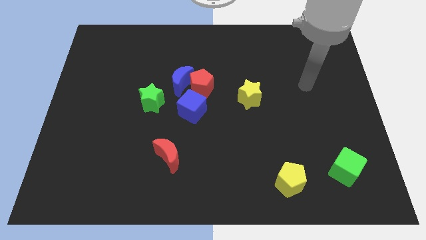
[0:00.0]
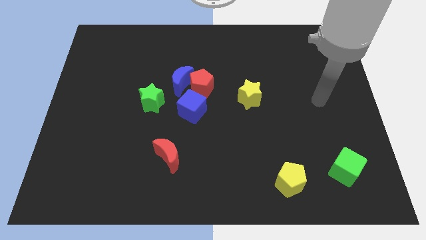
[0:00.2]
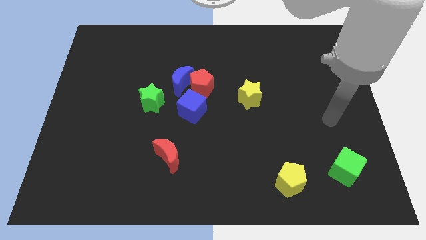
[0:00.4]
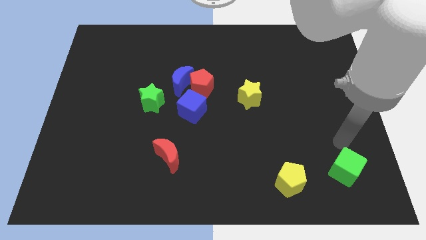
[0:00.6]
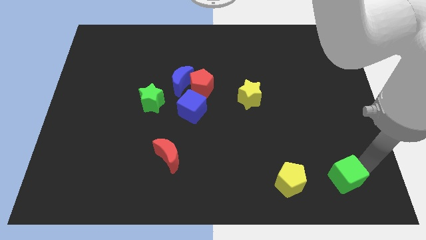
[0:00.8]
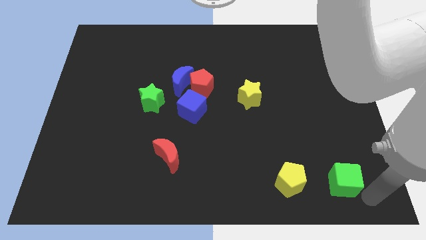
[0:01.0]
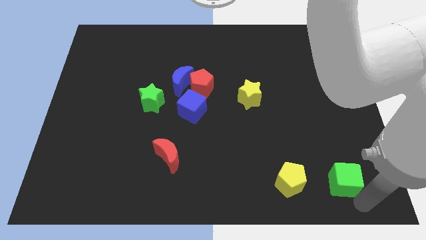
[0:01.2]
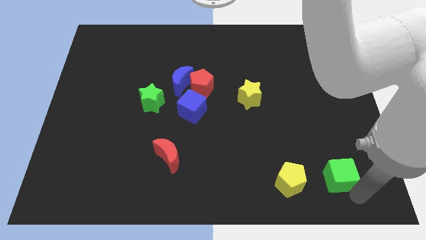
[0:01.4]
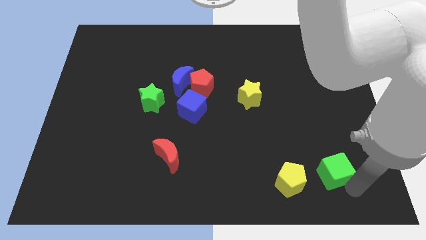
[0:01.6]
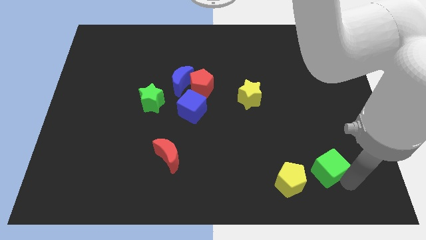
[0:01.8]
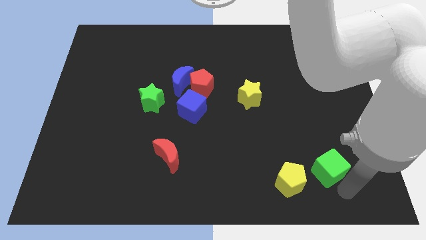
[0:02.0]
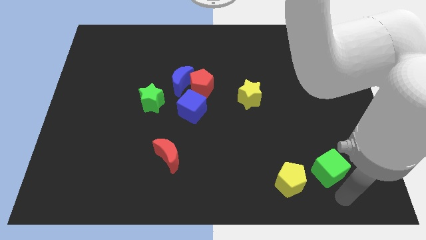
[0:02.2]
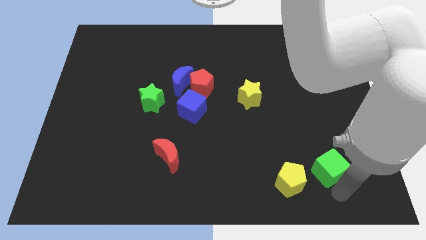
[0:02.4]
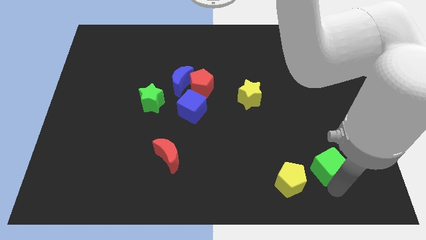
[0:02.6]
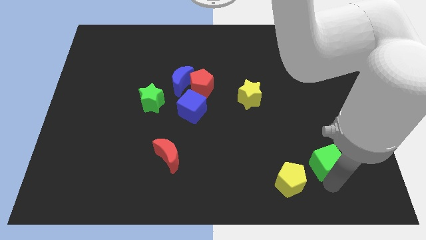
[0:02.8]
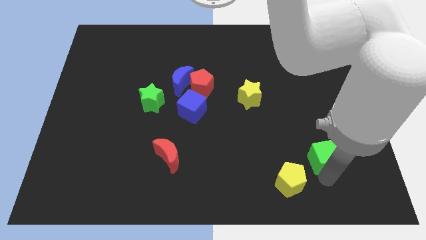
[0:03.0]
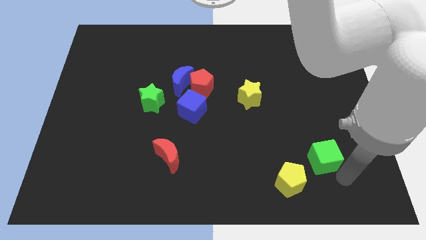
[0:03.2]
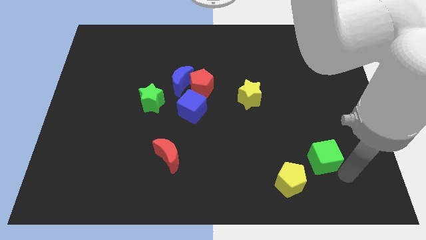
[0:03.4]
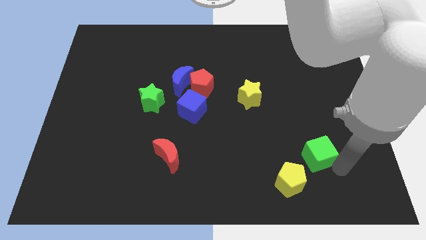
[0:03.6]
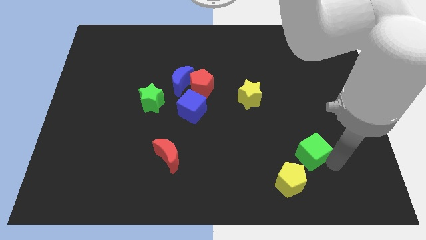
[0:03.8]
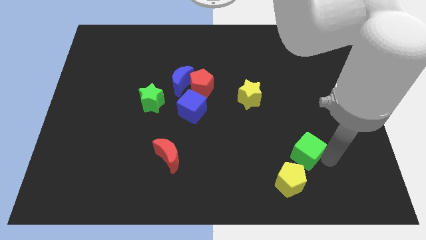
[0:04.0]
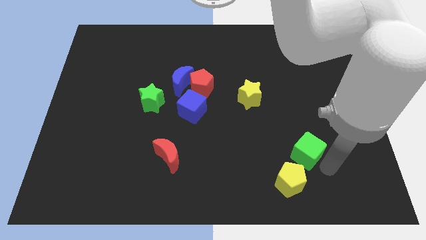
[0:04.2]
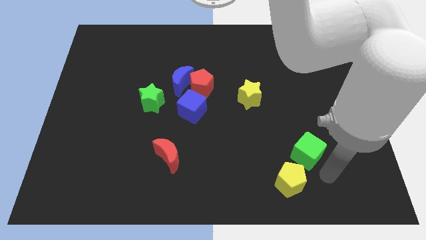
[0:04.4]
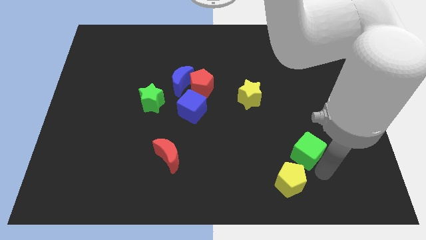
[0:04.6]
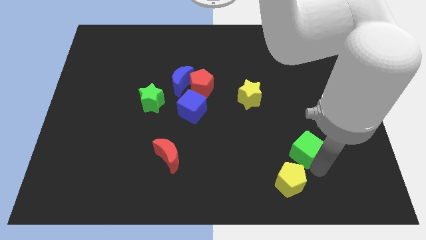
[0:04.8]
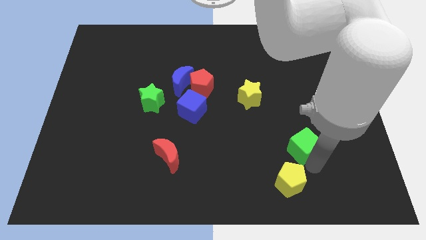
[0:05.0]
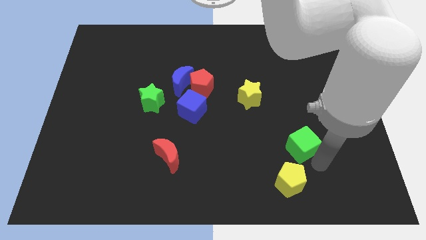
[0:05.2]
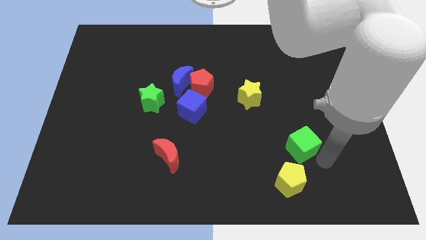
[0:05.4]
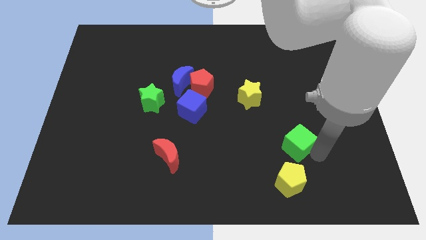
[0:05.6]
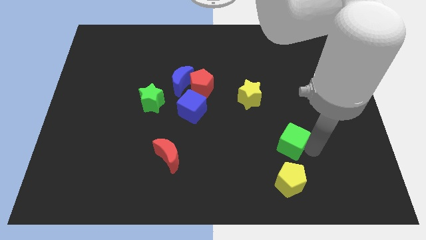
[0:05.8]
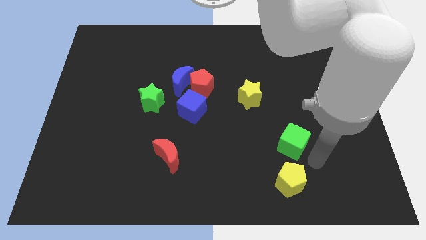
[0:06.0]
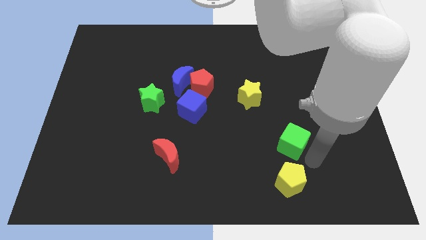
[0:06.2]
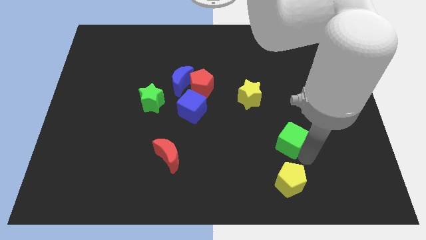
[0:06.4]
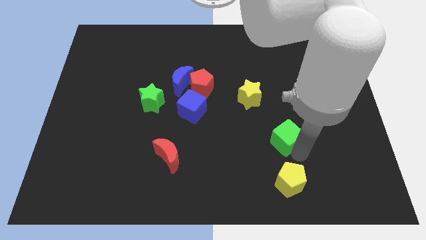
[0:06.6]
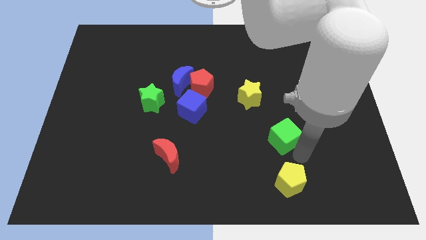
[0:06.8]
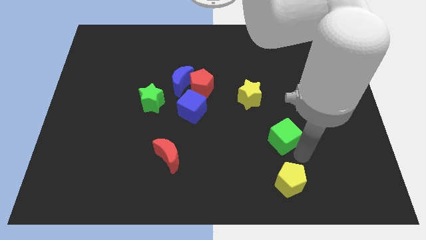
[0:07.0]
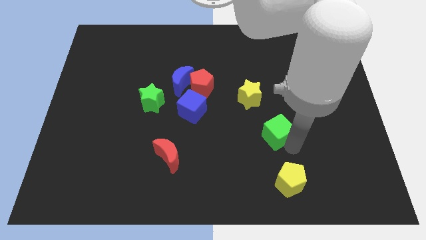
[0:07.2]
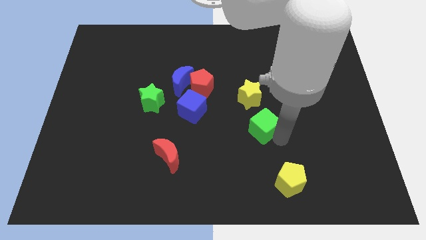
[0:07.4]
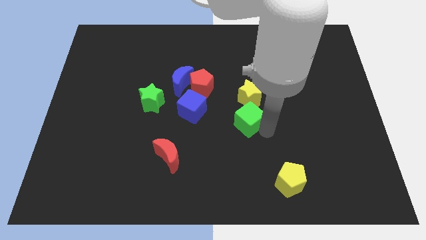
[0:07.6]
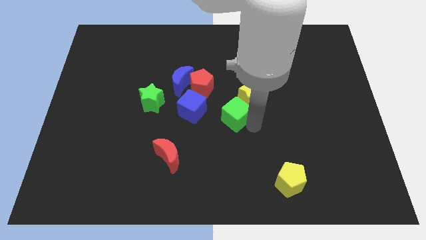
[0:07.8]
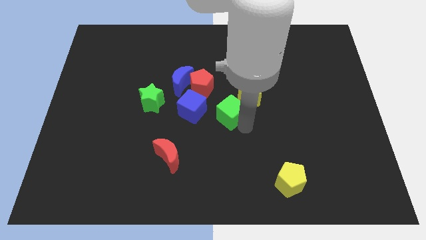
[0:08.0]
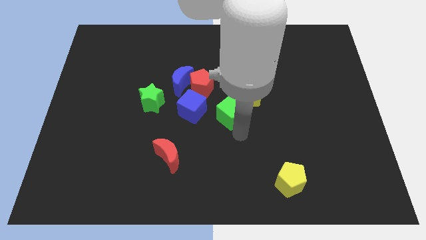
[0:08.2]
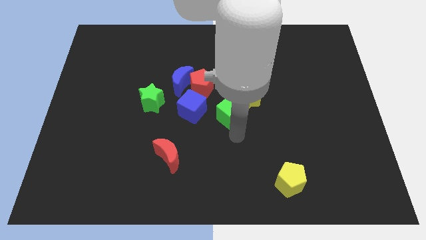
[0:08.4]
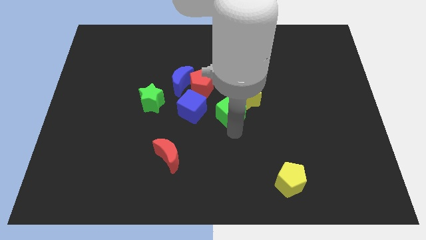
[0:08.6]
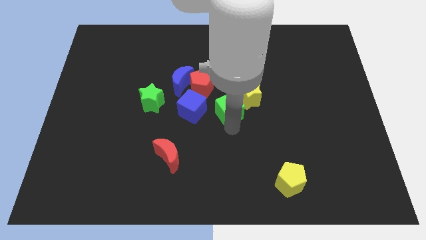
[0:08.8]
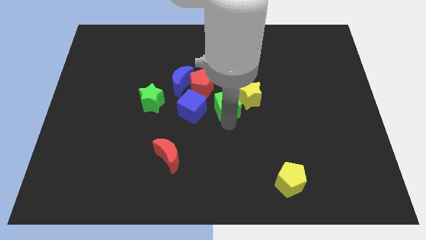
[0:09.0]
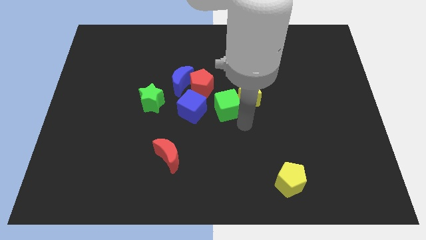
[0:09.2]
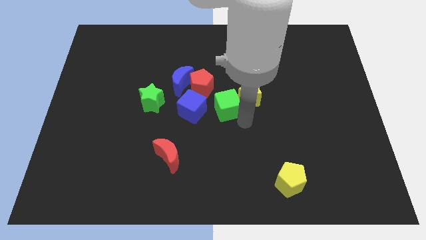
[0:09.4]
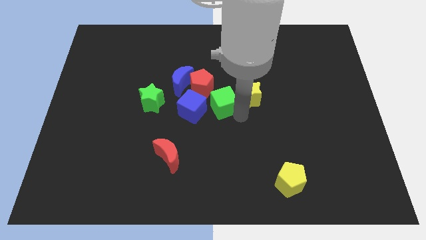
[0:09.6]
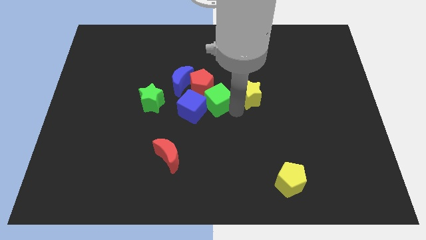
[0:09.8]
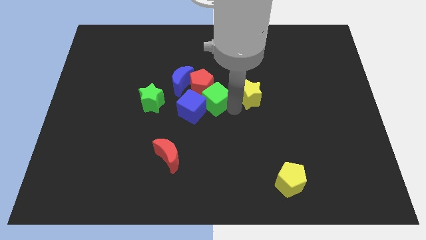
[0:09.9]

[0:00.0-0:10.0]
put the green cube towards the red pentagon

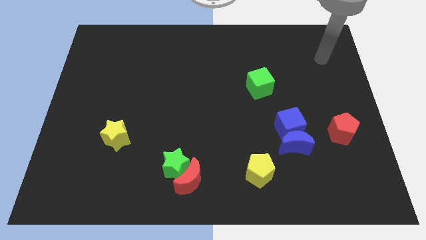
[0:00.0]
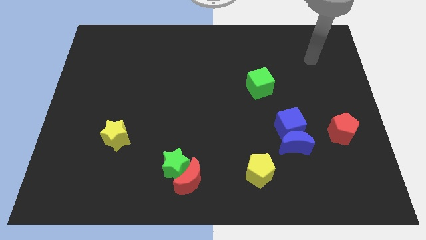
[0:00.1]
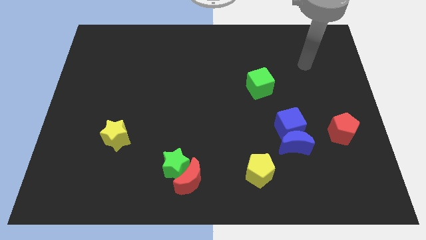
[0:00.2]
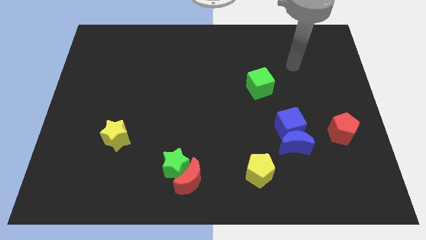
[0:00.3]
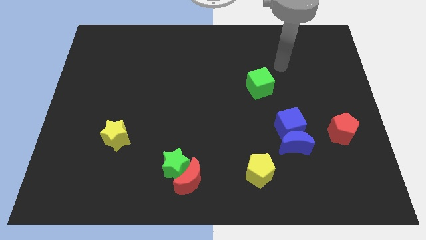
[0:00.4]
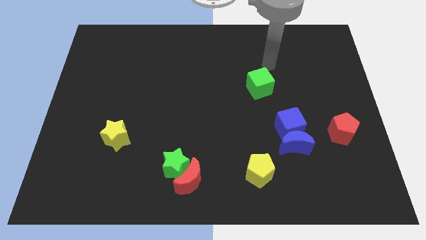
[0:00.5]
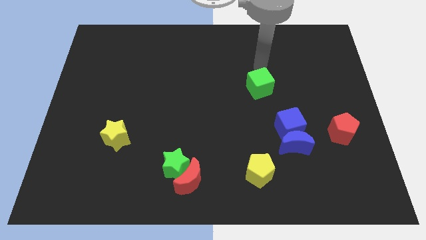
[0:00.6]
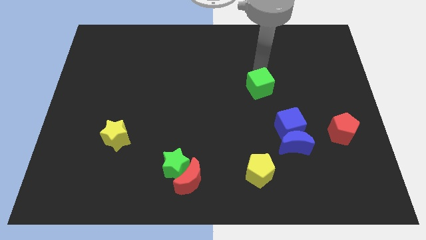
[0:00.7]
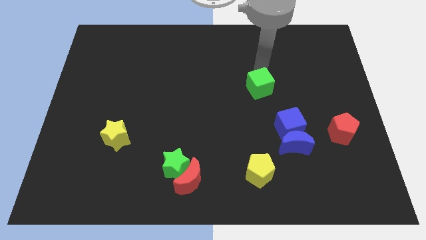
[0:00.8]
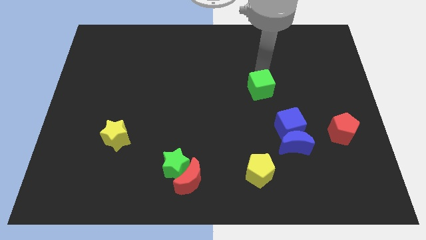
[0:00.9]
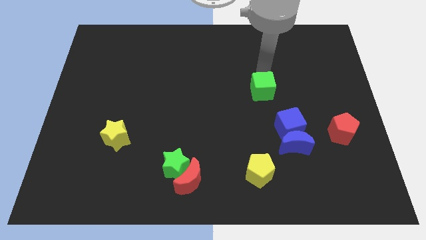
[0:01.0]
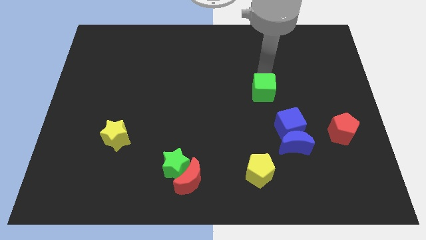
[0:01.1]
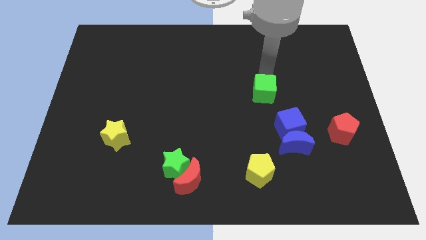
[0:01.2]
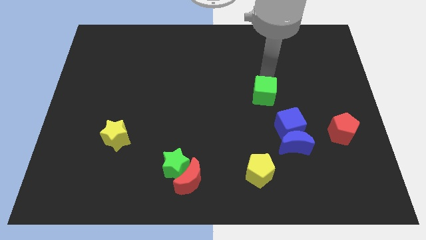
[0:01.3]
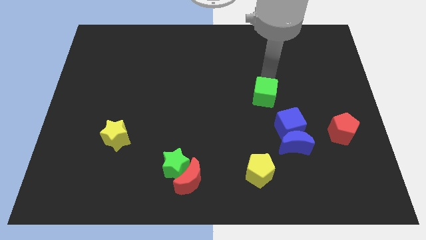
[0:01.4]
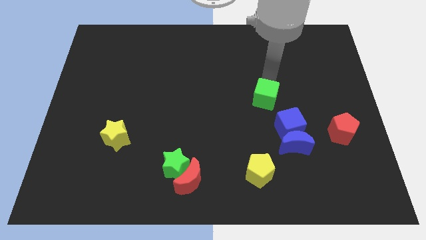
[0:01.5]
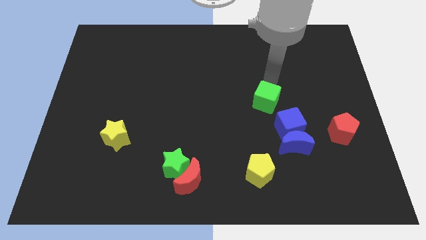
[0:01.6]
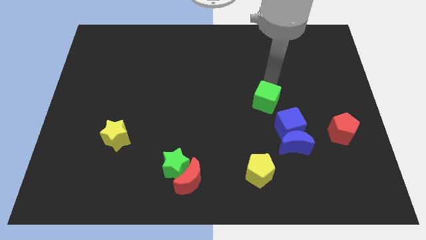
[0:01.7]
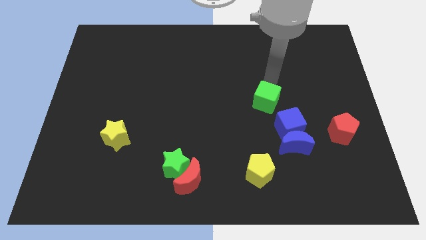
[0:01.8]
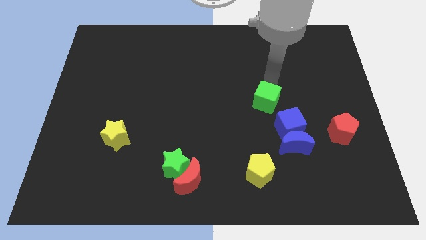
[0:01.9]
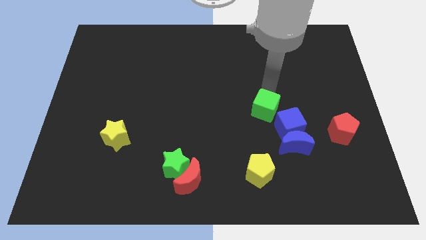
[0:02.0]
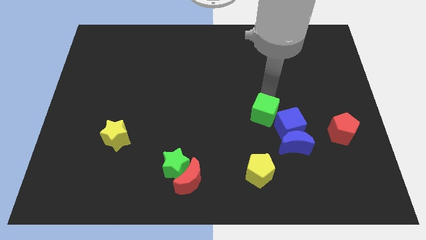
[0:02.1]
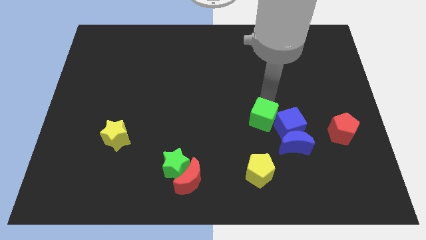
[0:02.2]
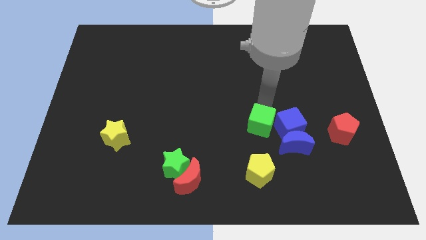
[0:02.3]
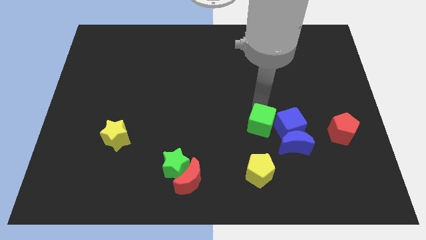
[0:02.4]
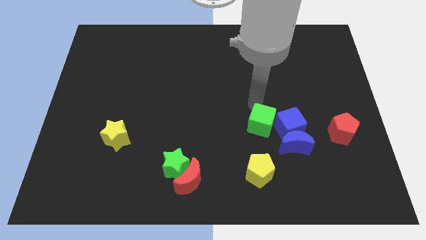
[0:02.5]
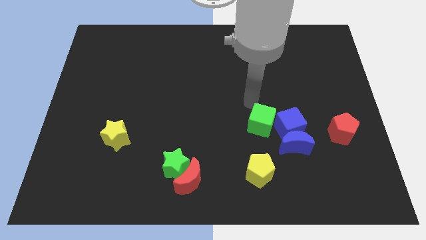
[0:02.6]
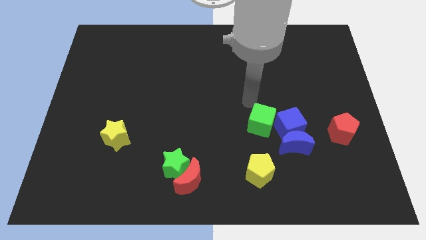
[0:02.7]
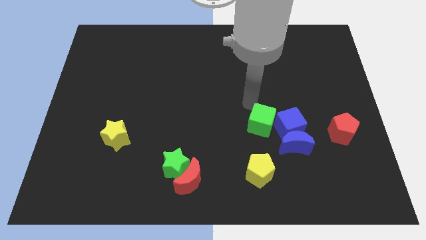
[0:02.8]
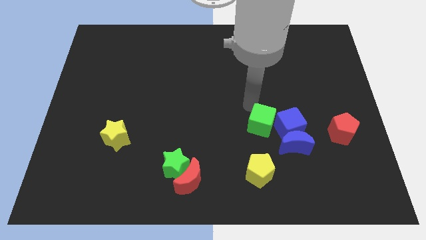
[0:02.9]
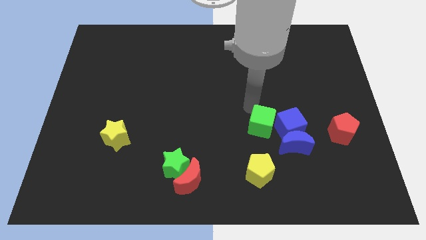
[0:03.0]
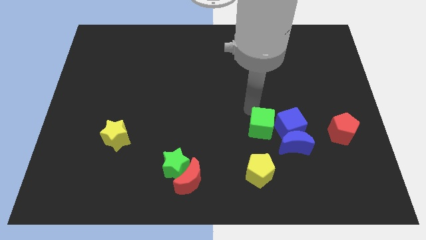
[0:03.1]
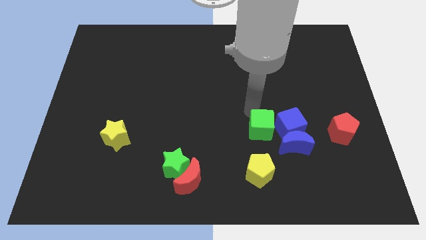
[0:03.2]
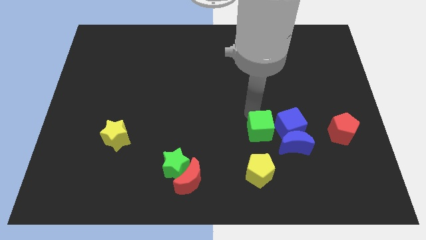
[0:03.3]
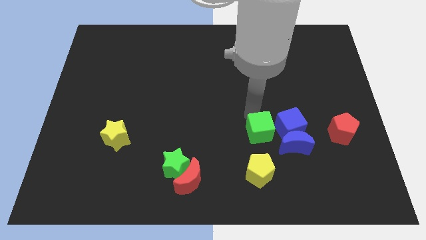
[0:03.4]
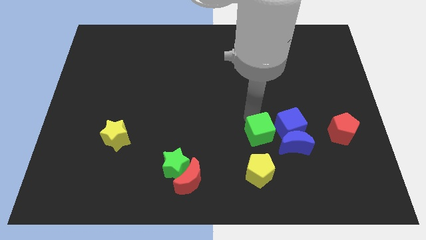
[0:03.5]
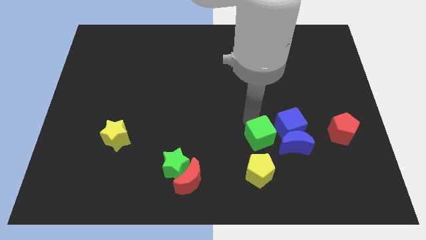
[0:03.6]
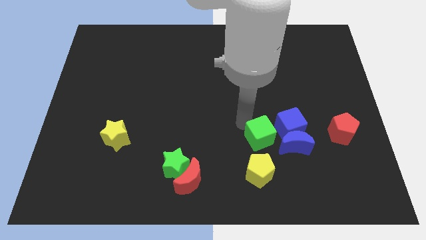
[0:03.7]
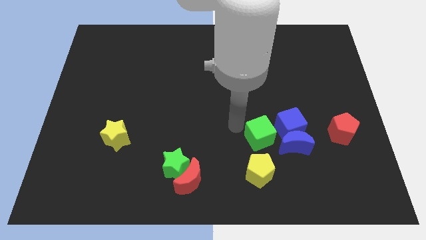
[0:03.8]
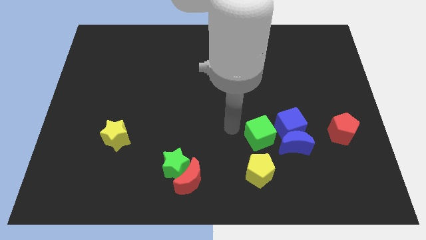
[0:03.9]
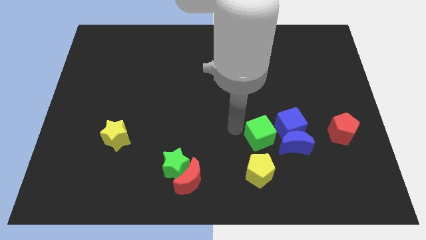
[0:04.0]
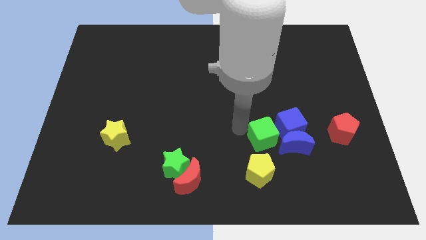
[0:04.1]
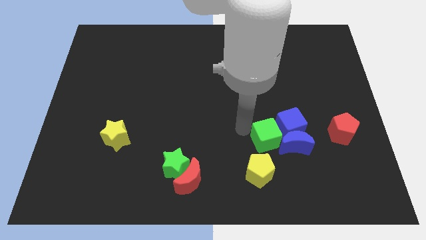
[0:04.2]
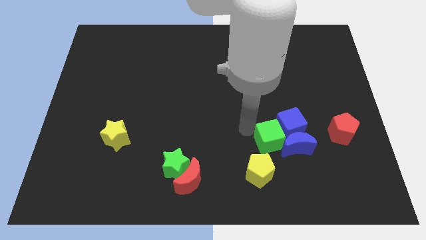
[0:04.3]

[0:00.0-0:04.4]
slide the green cube next to the blue moon
